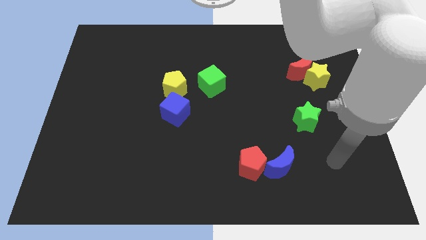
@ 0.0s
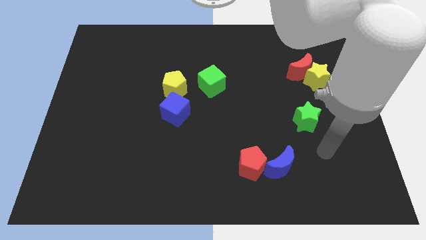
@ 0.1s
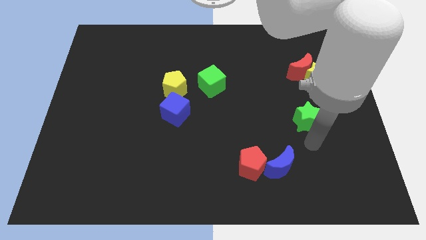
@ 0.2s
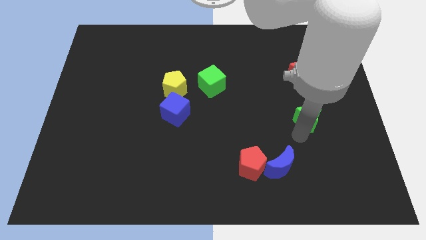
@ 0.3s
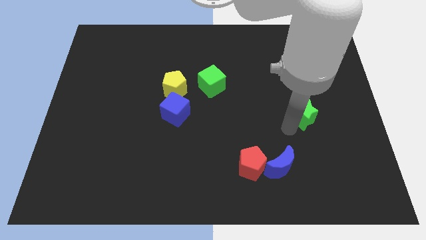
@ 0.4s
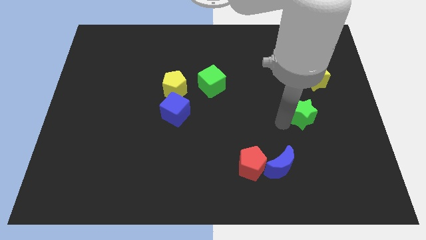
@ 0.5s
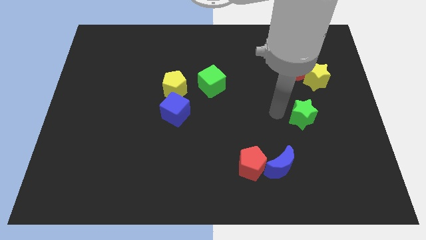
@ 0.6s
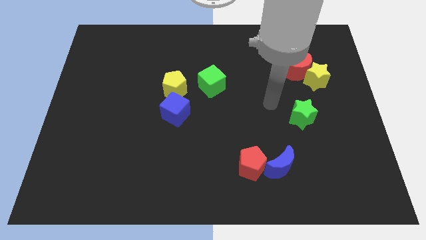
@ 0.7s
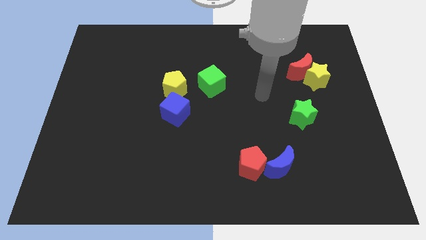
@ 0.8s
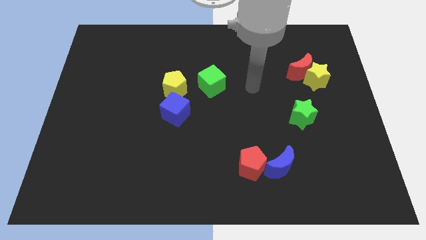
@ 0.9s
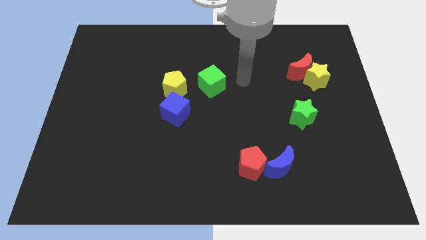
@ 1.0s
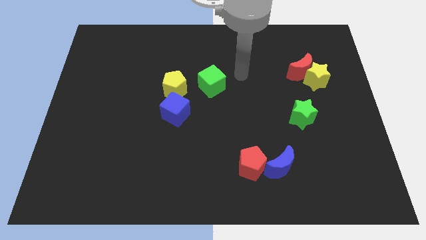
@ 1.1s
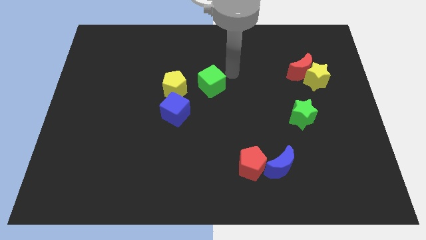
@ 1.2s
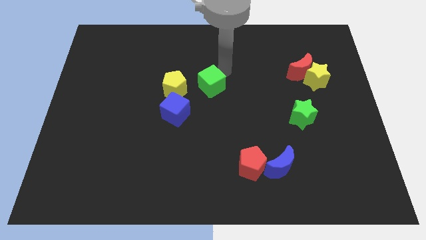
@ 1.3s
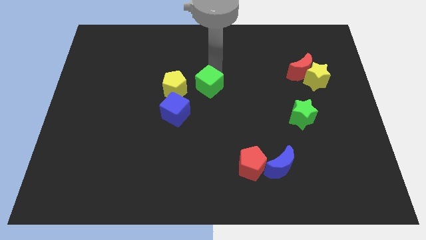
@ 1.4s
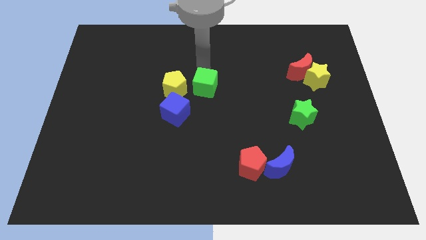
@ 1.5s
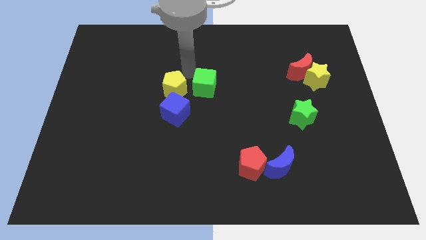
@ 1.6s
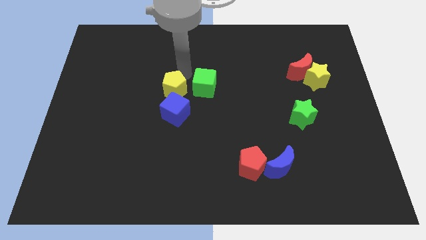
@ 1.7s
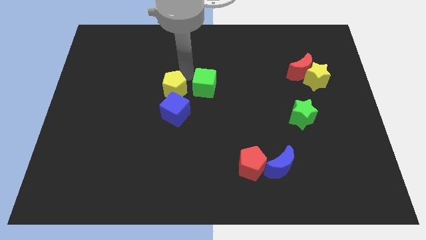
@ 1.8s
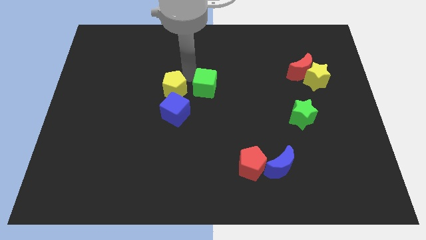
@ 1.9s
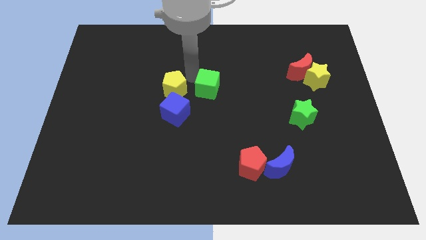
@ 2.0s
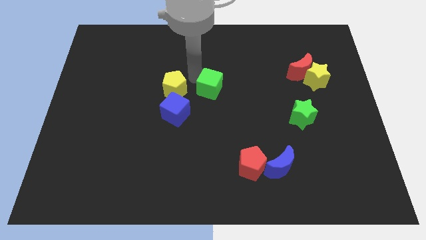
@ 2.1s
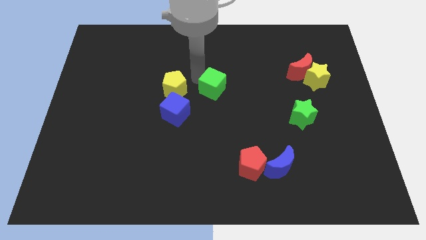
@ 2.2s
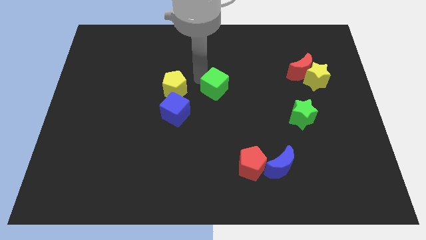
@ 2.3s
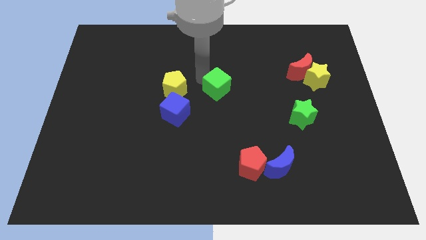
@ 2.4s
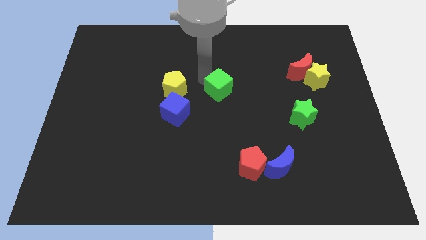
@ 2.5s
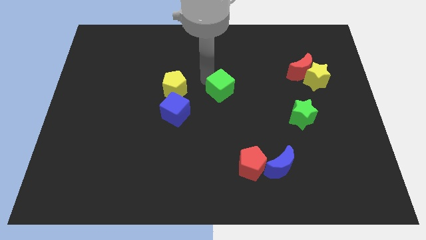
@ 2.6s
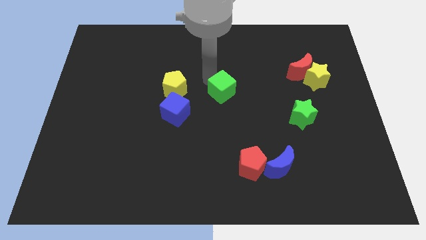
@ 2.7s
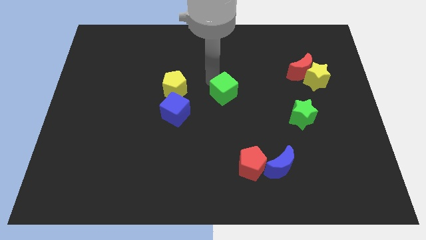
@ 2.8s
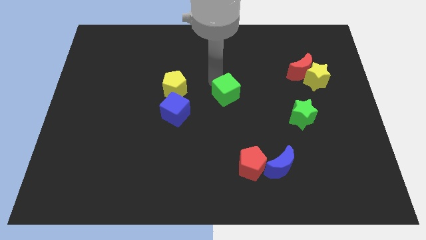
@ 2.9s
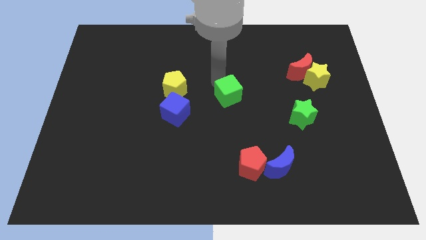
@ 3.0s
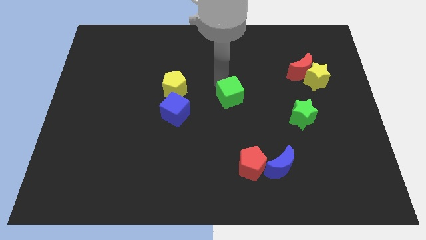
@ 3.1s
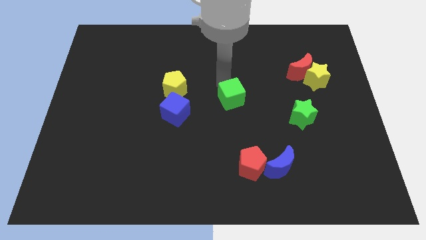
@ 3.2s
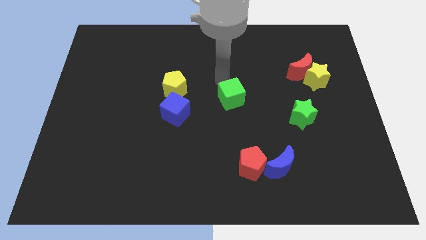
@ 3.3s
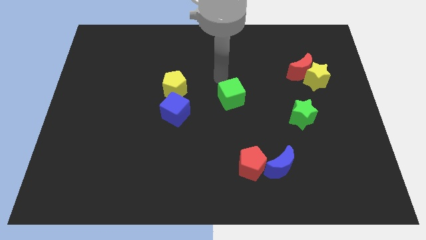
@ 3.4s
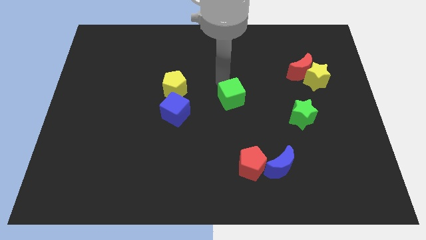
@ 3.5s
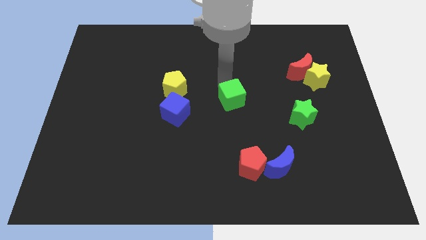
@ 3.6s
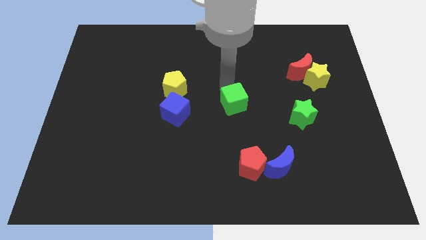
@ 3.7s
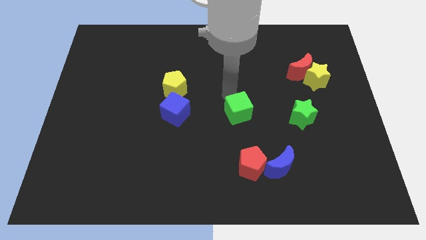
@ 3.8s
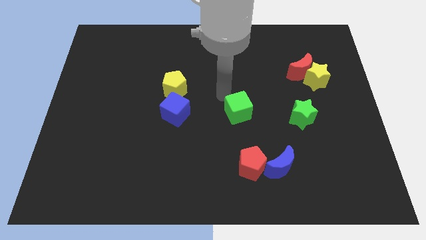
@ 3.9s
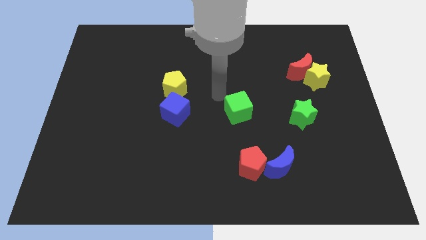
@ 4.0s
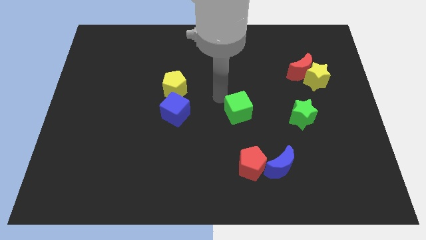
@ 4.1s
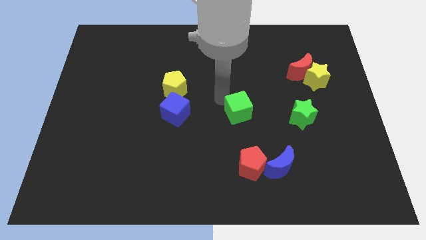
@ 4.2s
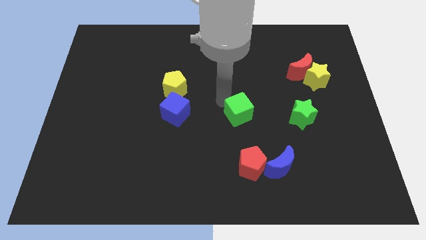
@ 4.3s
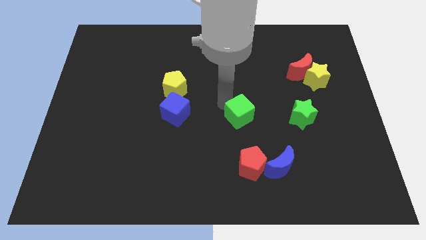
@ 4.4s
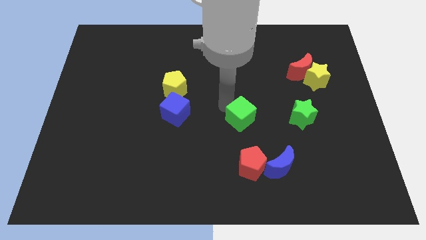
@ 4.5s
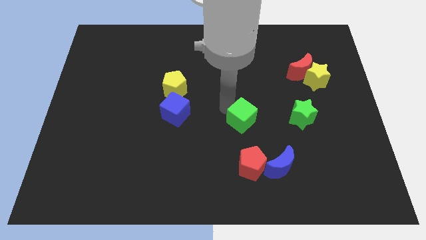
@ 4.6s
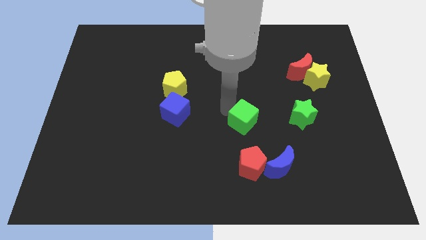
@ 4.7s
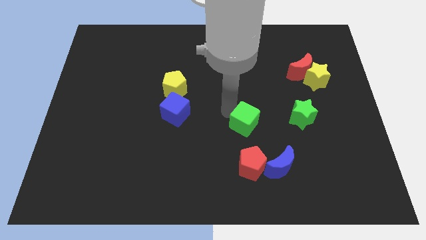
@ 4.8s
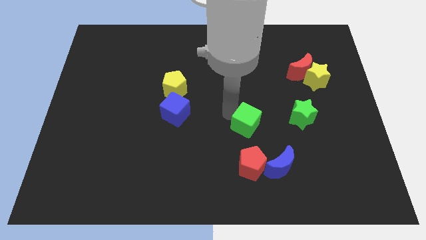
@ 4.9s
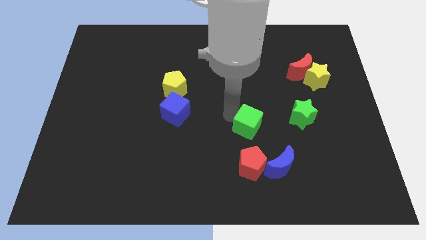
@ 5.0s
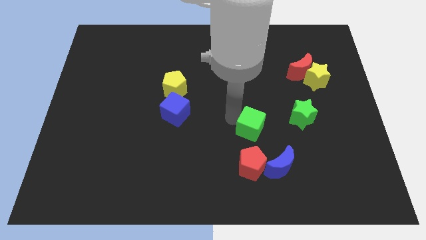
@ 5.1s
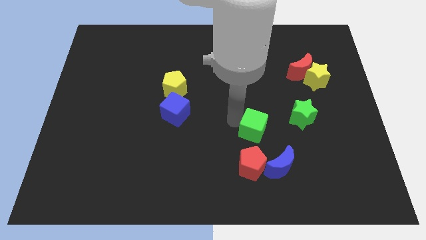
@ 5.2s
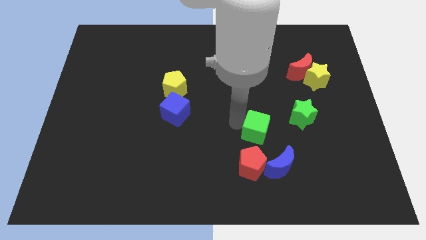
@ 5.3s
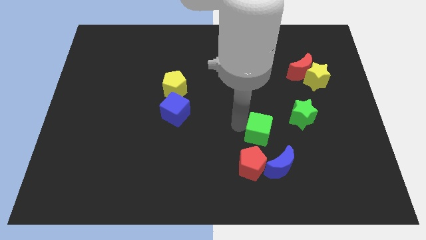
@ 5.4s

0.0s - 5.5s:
slide the green cube to the bottom left of the green star

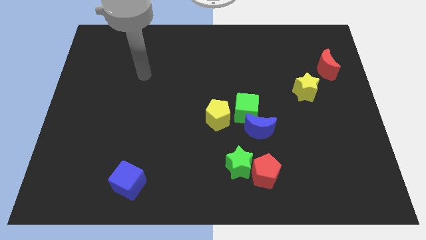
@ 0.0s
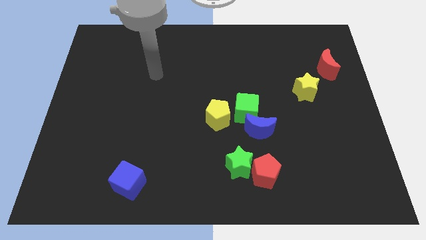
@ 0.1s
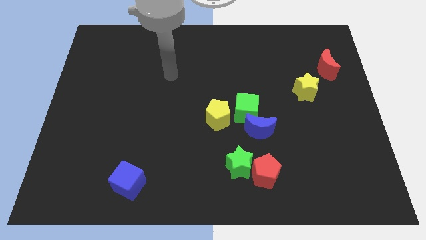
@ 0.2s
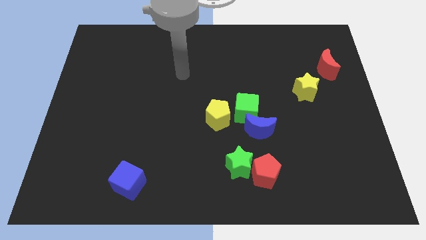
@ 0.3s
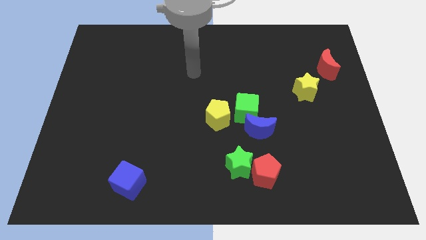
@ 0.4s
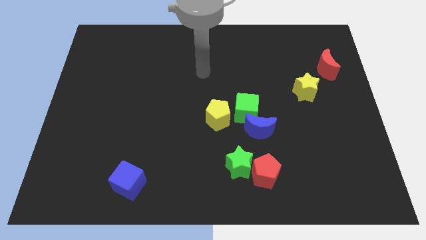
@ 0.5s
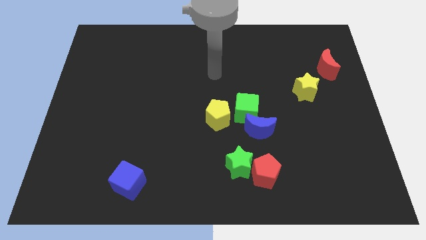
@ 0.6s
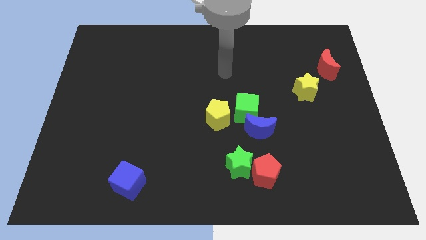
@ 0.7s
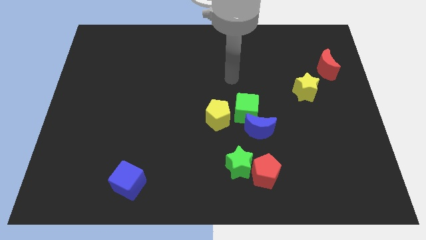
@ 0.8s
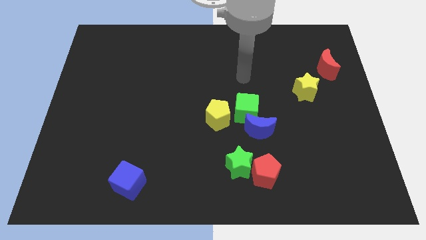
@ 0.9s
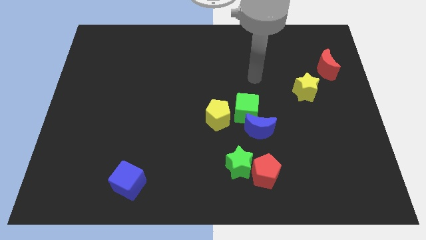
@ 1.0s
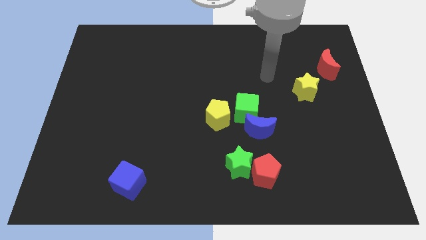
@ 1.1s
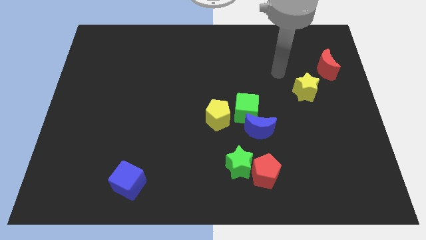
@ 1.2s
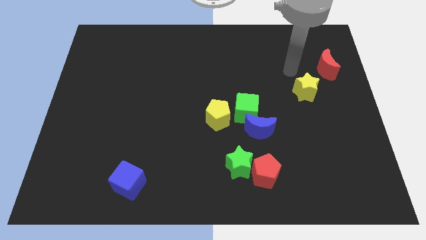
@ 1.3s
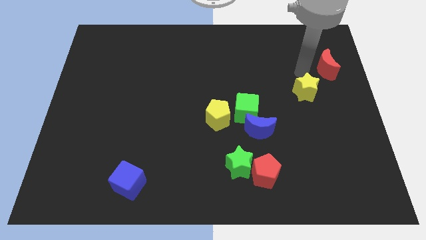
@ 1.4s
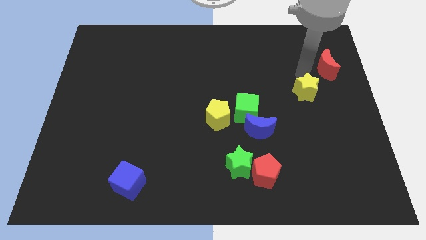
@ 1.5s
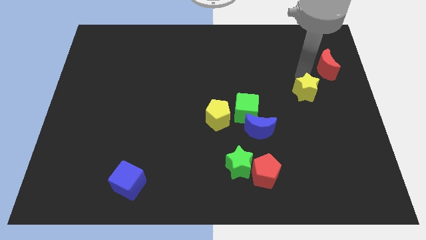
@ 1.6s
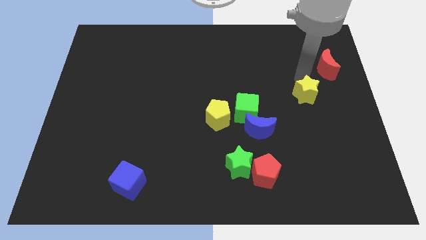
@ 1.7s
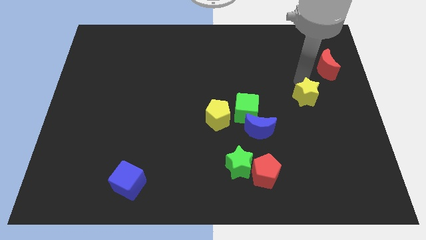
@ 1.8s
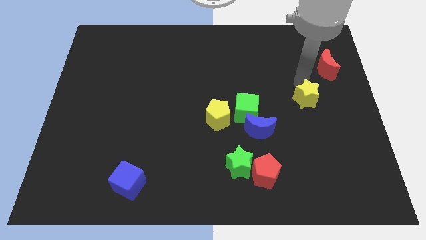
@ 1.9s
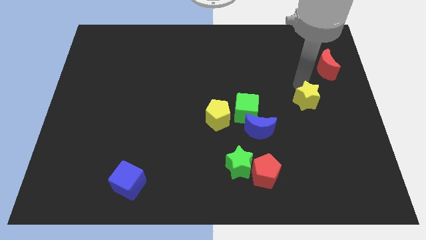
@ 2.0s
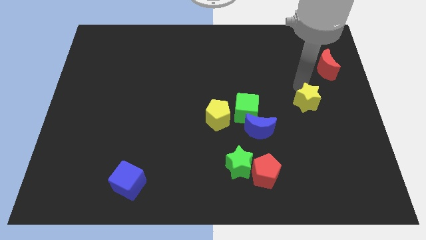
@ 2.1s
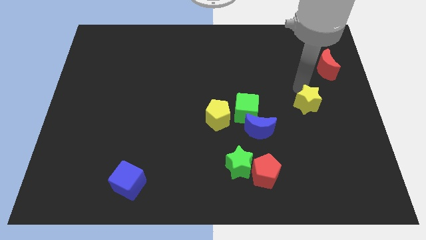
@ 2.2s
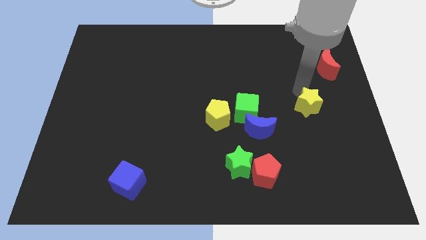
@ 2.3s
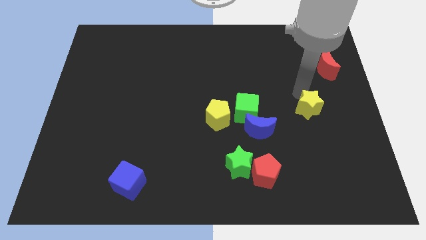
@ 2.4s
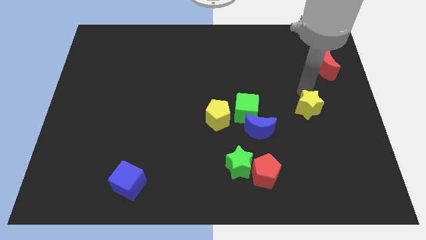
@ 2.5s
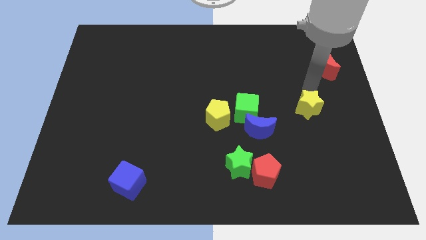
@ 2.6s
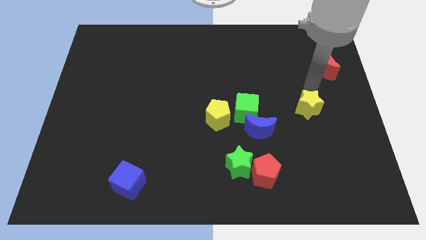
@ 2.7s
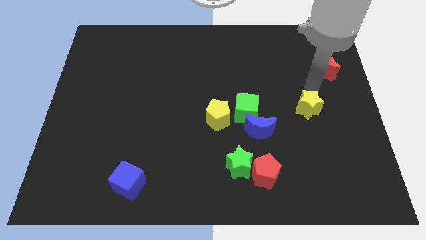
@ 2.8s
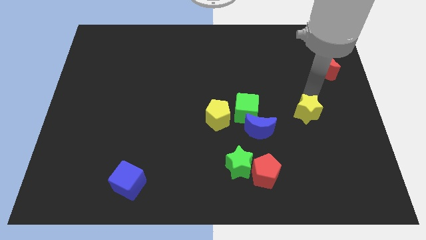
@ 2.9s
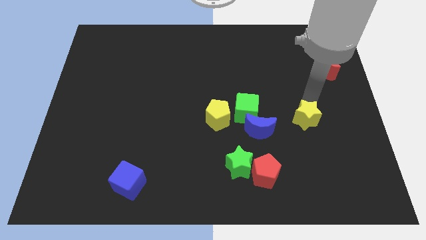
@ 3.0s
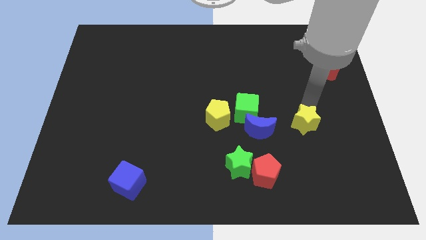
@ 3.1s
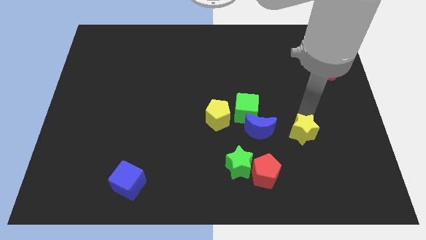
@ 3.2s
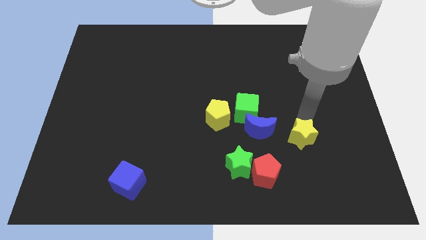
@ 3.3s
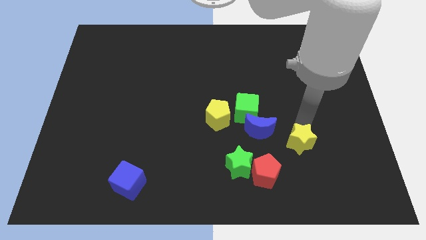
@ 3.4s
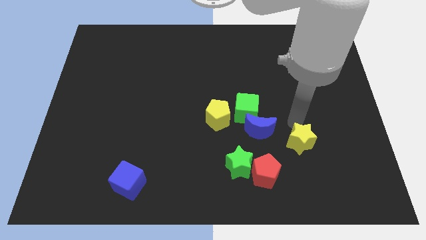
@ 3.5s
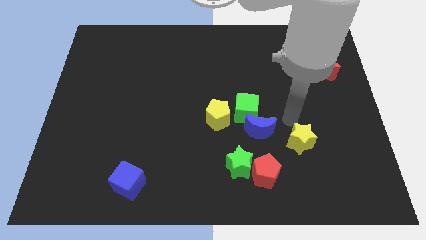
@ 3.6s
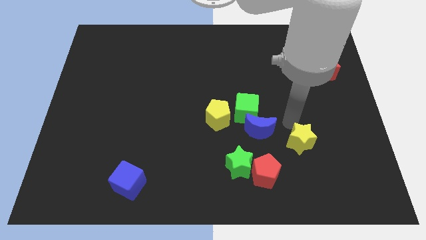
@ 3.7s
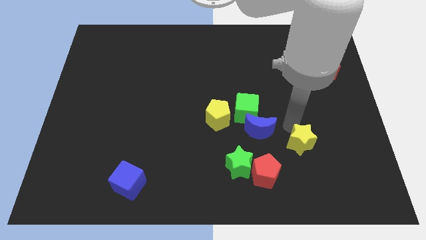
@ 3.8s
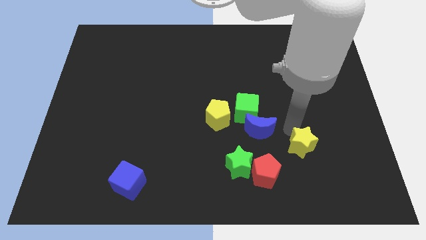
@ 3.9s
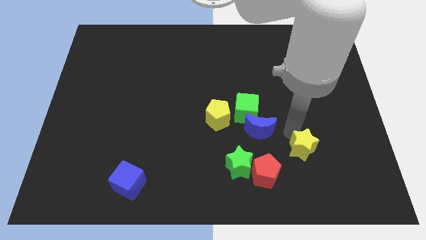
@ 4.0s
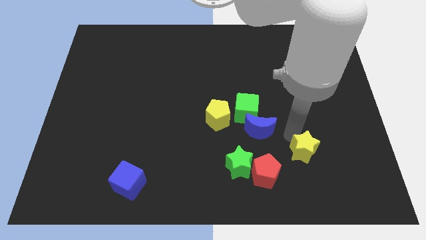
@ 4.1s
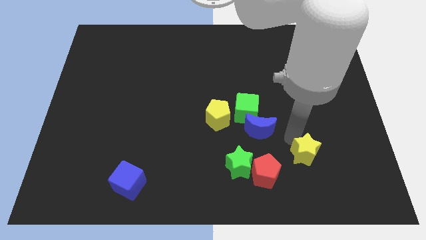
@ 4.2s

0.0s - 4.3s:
slide the yellow star just right of the red pentagon
